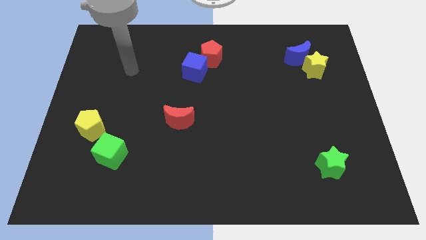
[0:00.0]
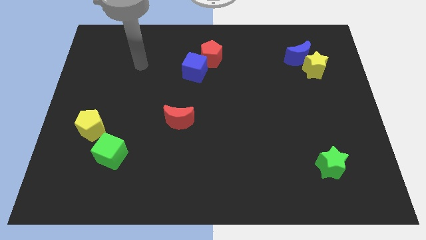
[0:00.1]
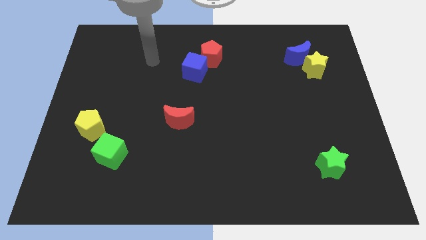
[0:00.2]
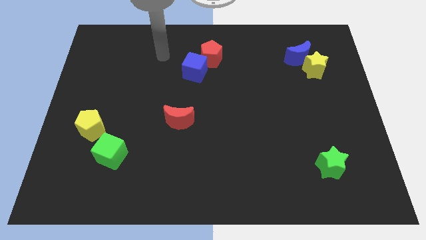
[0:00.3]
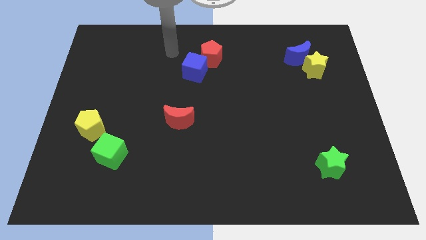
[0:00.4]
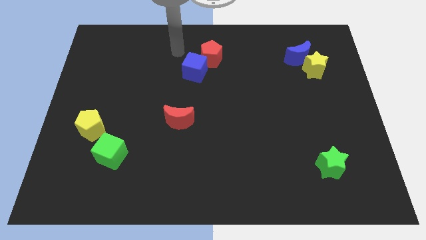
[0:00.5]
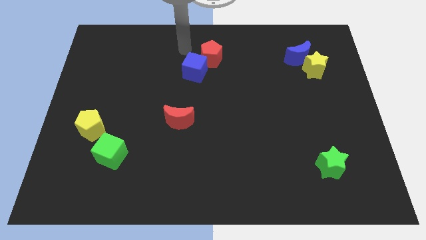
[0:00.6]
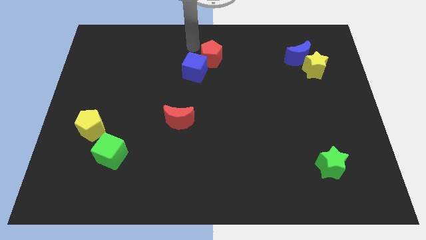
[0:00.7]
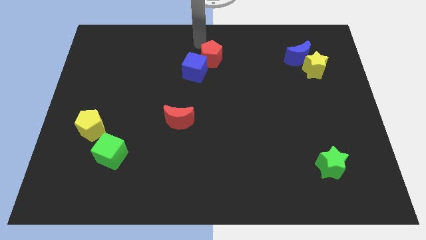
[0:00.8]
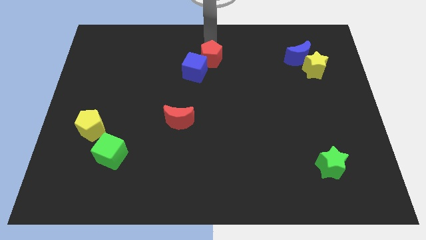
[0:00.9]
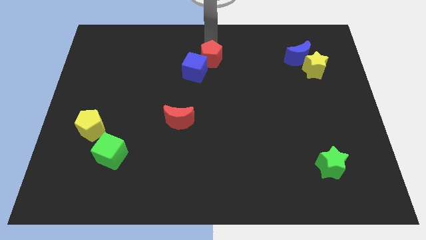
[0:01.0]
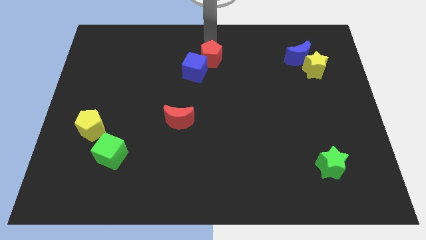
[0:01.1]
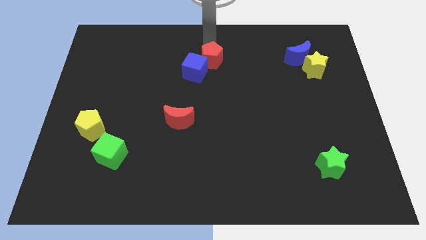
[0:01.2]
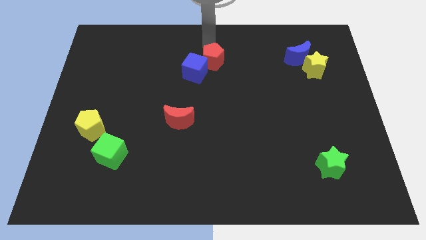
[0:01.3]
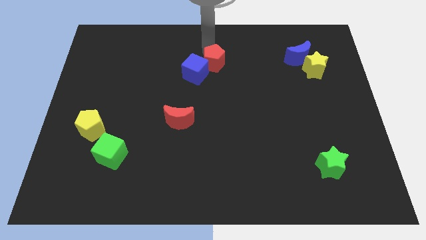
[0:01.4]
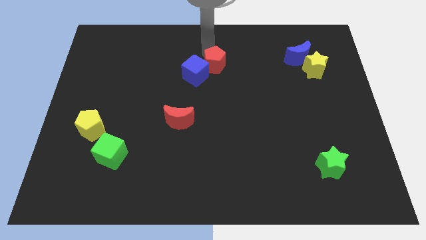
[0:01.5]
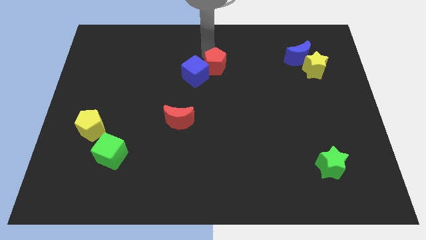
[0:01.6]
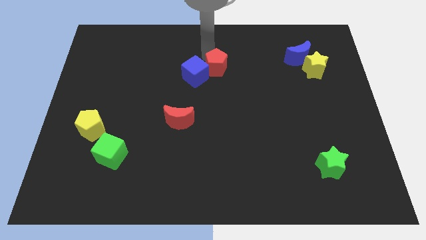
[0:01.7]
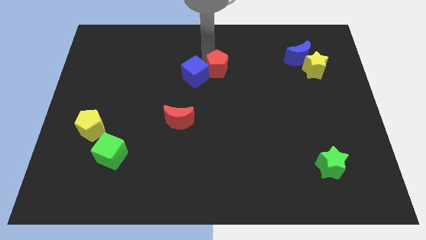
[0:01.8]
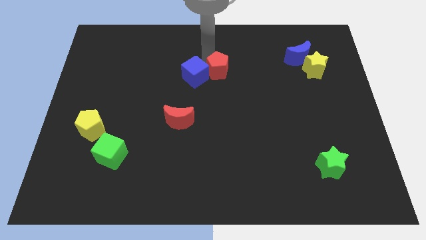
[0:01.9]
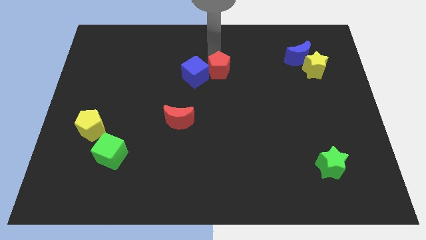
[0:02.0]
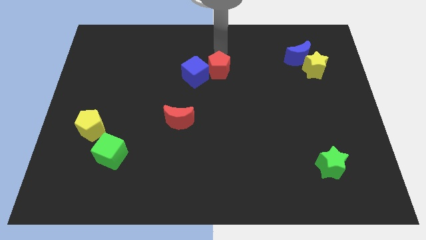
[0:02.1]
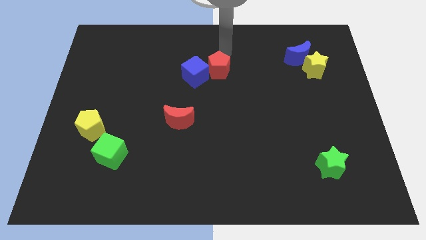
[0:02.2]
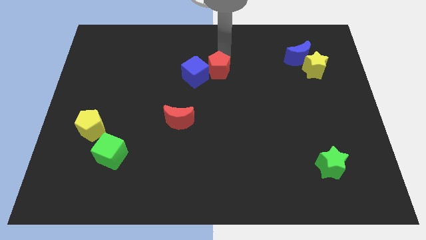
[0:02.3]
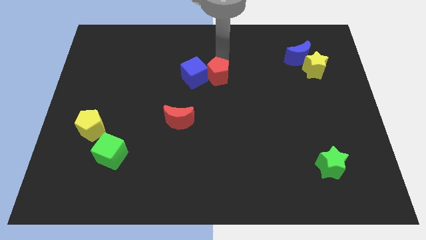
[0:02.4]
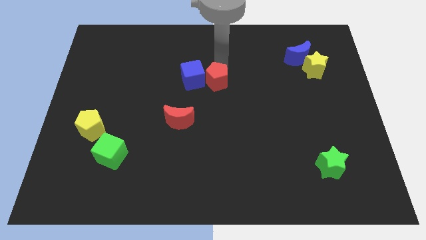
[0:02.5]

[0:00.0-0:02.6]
move the red pentagon down a little

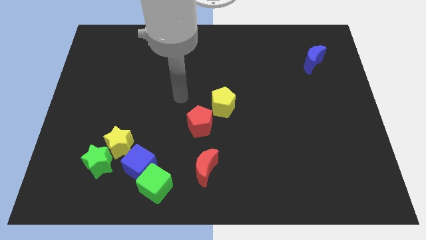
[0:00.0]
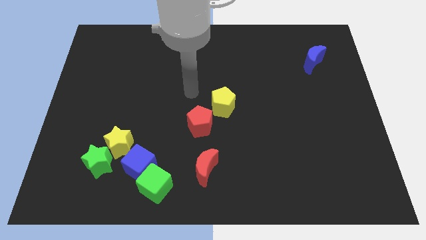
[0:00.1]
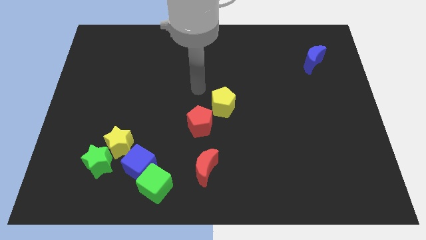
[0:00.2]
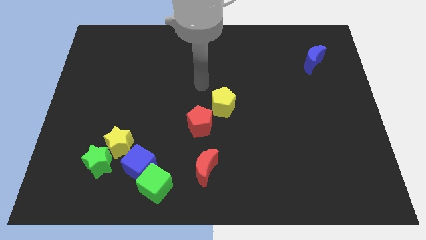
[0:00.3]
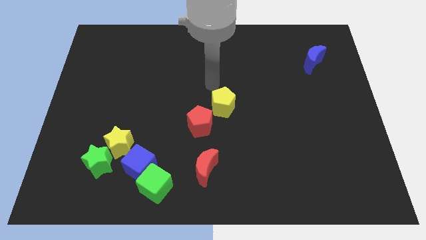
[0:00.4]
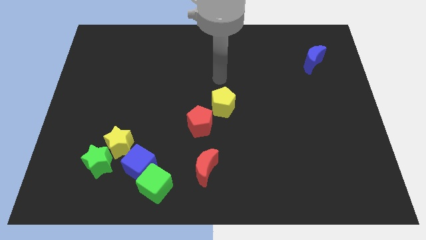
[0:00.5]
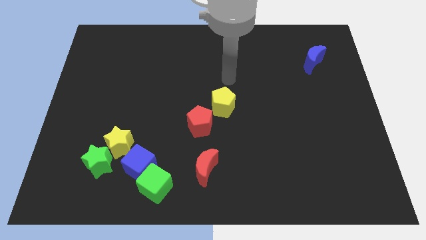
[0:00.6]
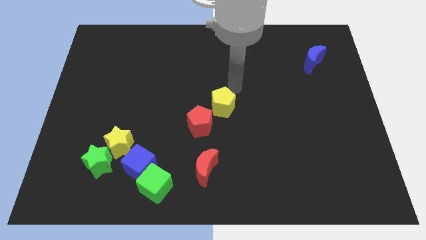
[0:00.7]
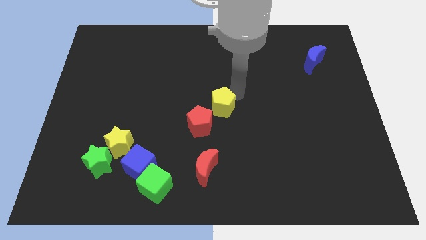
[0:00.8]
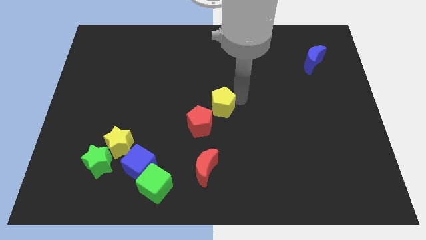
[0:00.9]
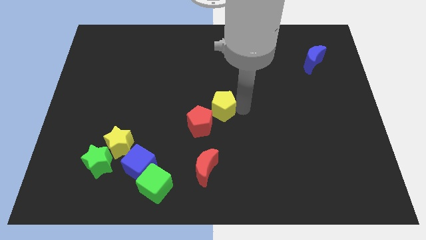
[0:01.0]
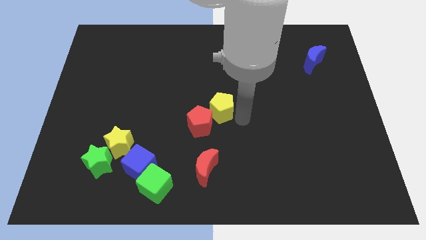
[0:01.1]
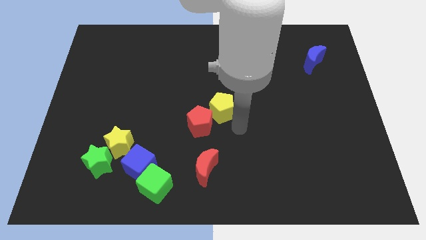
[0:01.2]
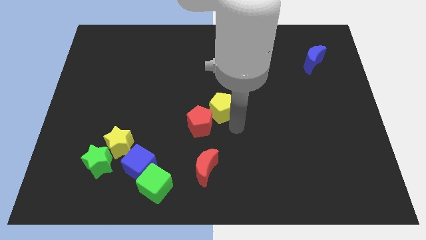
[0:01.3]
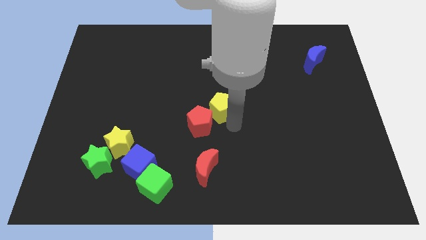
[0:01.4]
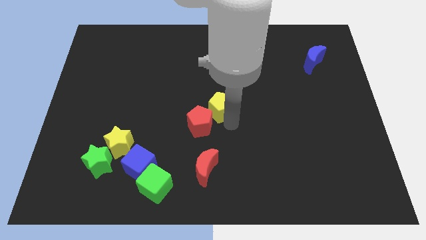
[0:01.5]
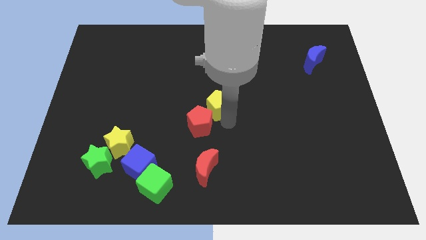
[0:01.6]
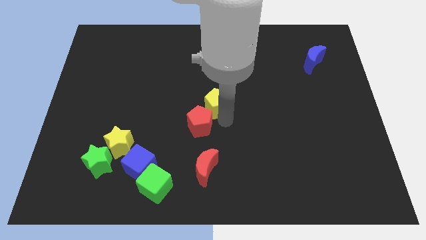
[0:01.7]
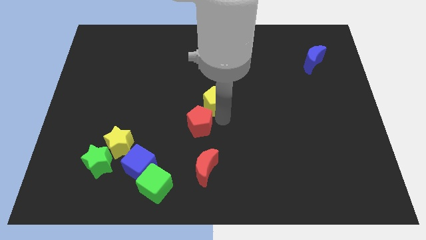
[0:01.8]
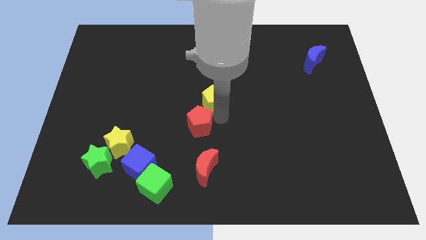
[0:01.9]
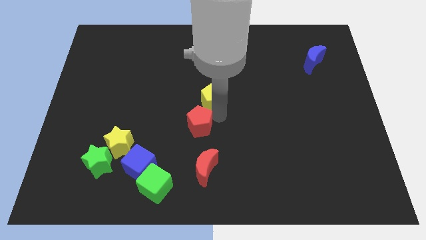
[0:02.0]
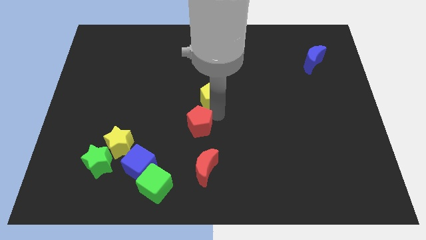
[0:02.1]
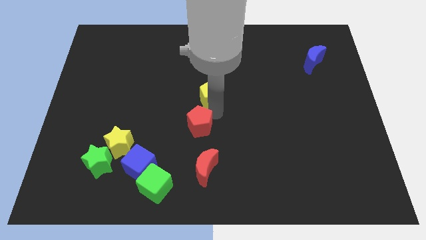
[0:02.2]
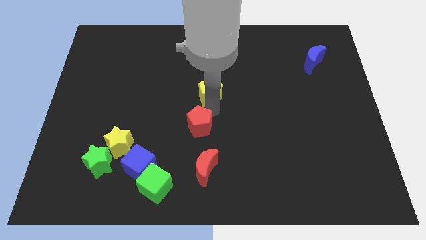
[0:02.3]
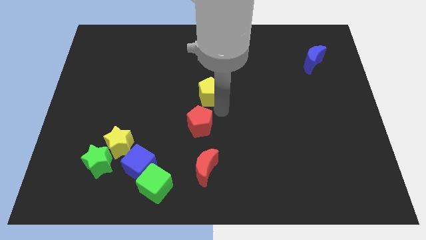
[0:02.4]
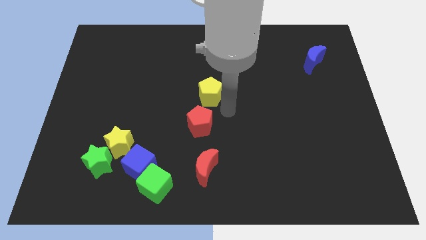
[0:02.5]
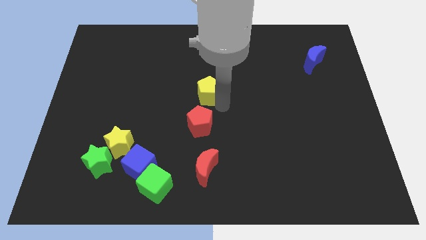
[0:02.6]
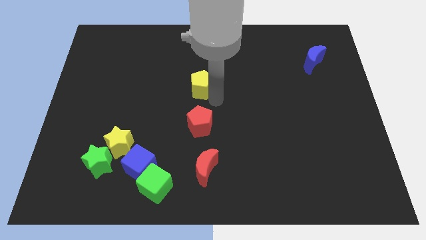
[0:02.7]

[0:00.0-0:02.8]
slide the yellow pentagon diagonally upwards and to the left somewhat

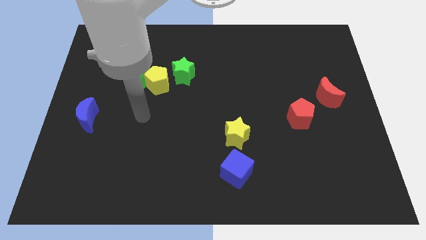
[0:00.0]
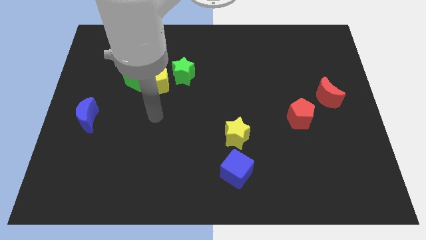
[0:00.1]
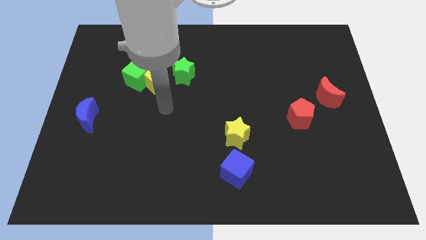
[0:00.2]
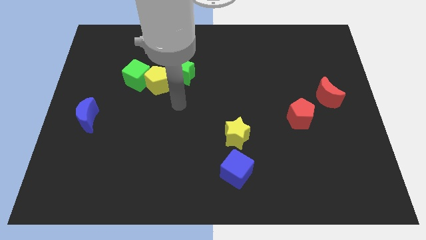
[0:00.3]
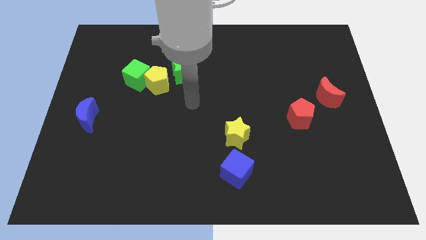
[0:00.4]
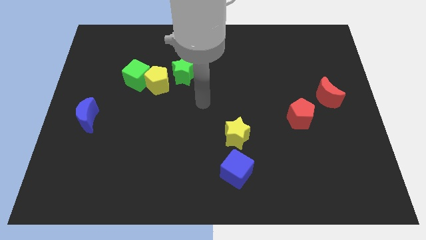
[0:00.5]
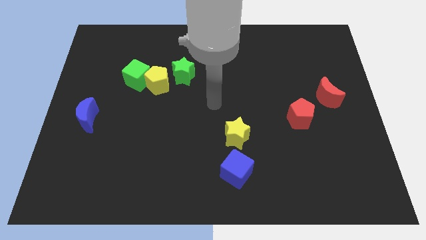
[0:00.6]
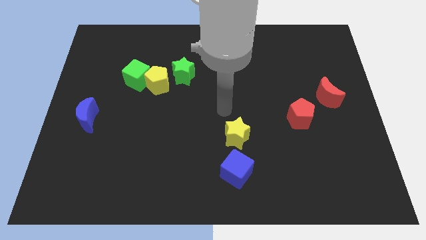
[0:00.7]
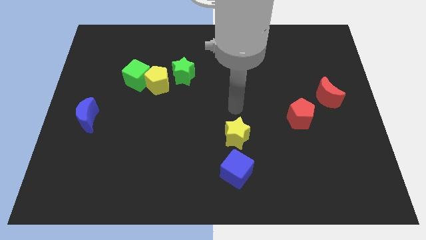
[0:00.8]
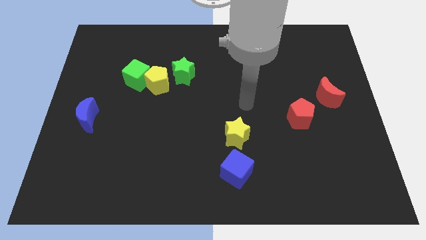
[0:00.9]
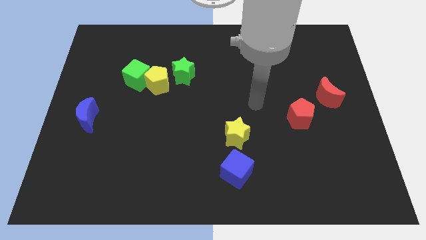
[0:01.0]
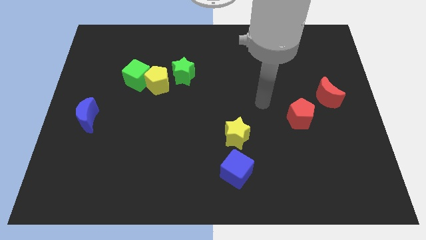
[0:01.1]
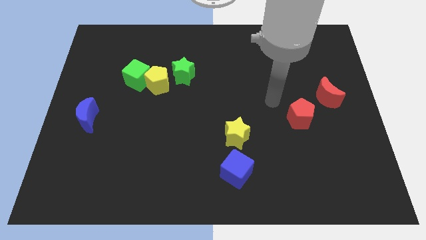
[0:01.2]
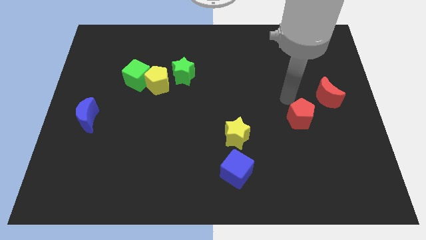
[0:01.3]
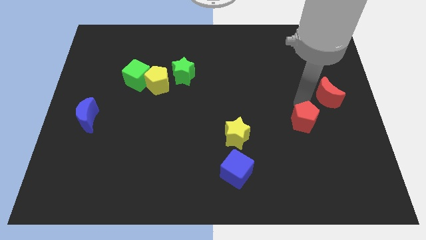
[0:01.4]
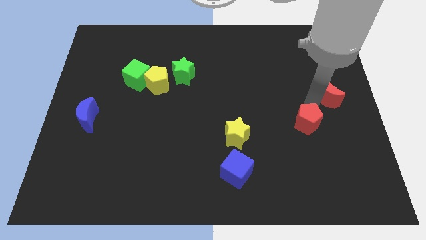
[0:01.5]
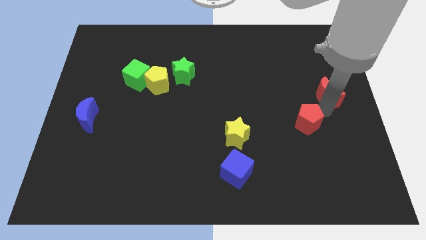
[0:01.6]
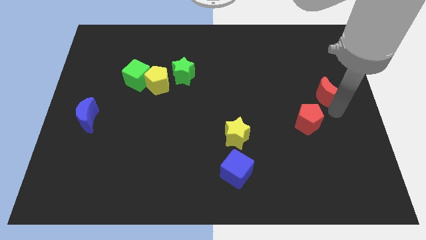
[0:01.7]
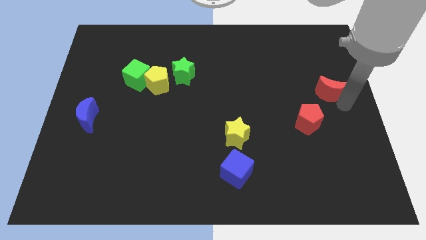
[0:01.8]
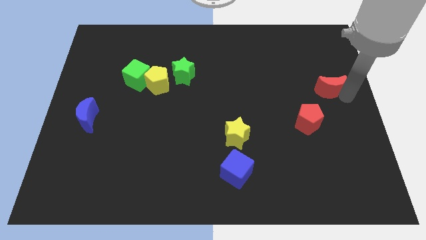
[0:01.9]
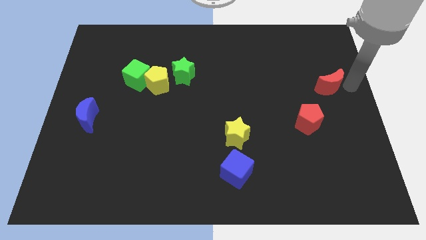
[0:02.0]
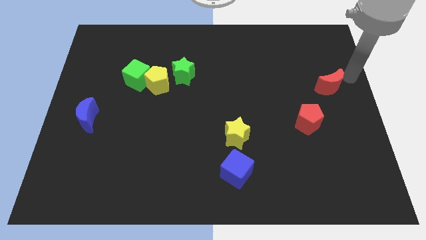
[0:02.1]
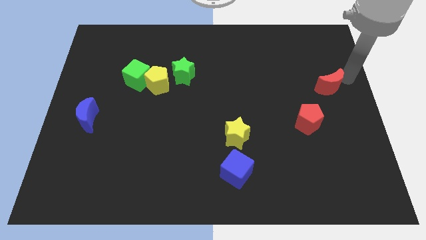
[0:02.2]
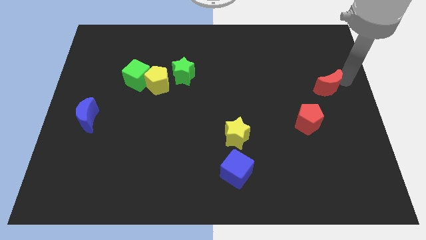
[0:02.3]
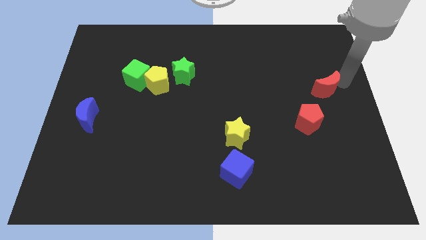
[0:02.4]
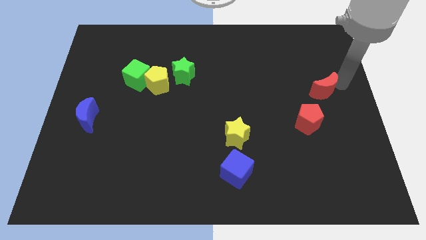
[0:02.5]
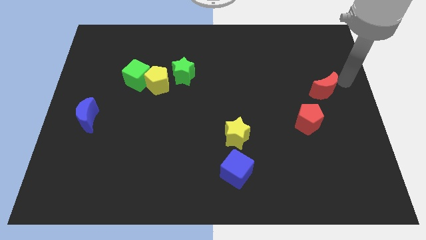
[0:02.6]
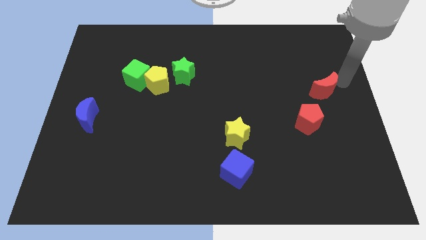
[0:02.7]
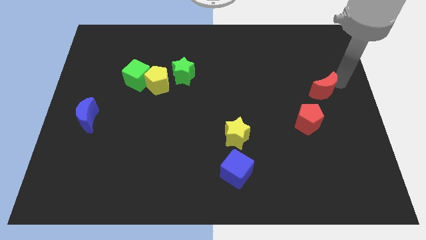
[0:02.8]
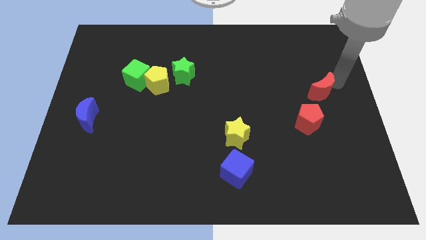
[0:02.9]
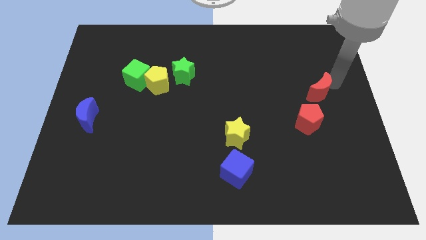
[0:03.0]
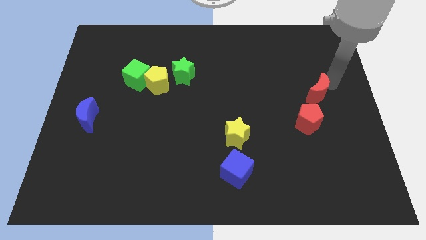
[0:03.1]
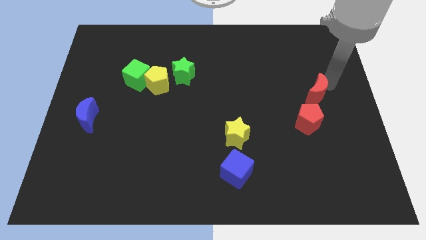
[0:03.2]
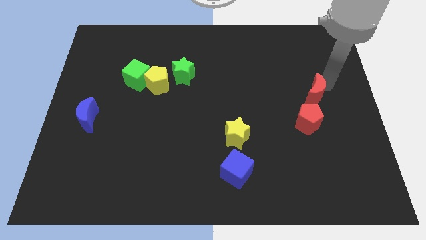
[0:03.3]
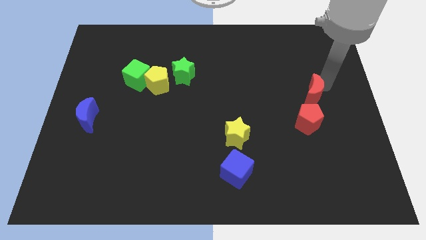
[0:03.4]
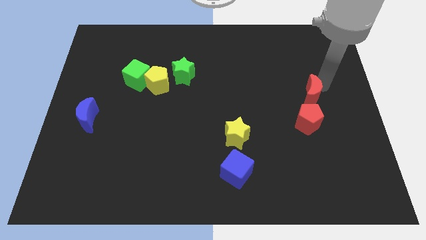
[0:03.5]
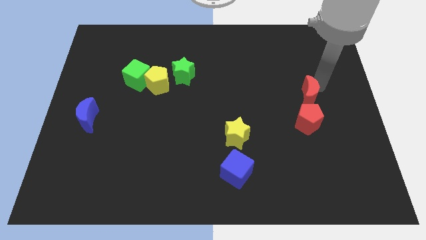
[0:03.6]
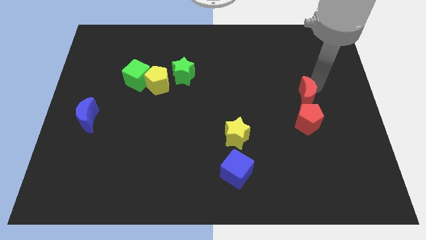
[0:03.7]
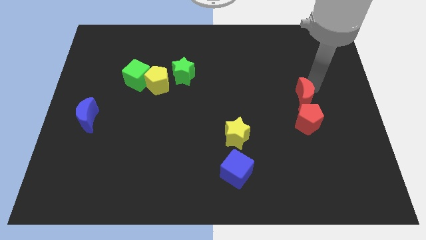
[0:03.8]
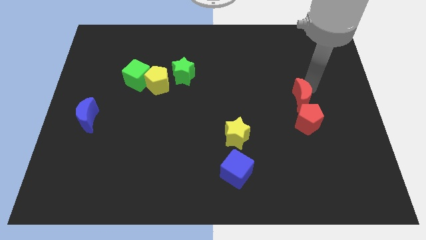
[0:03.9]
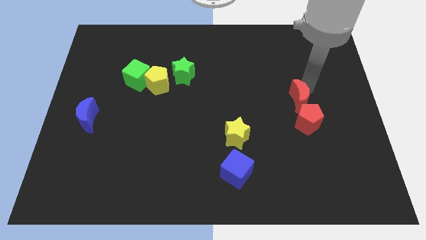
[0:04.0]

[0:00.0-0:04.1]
slide the red moon a little bit to the left
